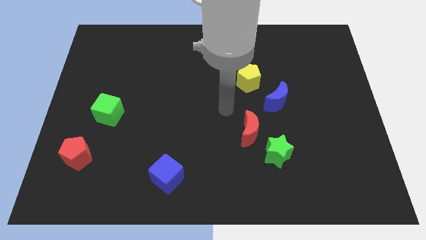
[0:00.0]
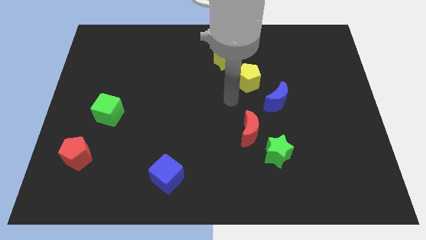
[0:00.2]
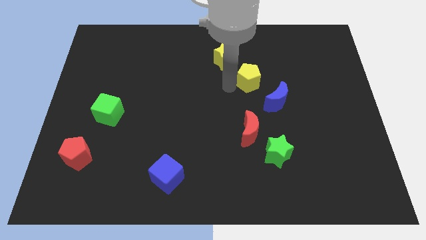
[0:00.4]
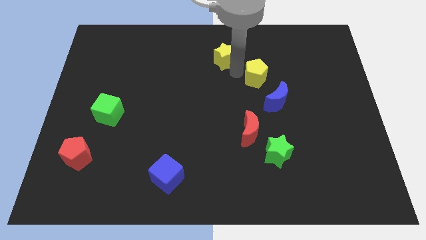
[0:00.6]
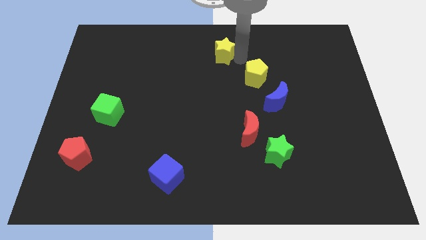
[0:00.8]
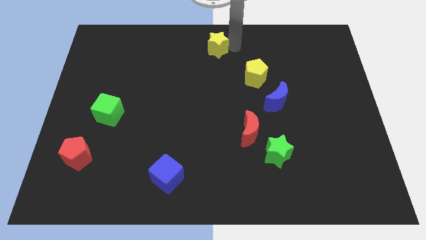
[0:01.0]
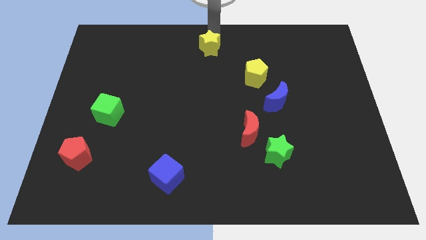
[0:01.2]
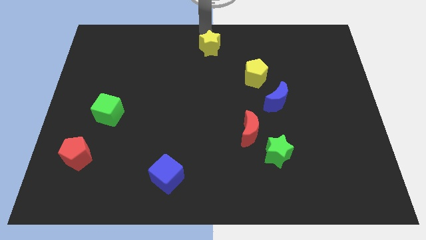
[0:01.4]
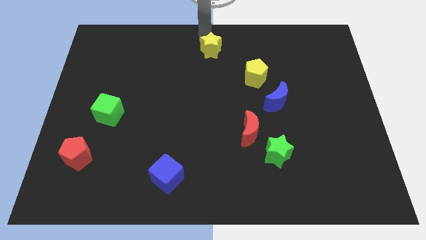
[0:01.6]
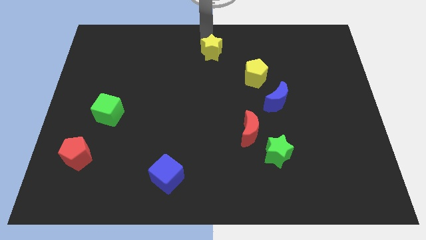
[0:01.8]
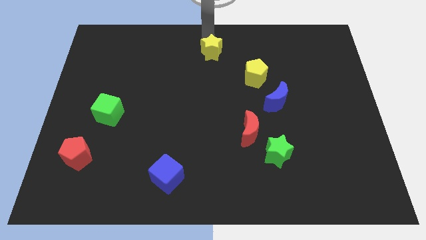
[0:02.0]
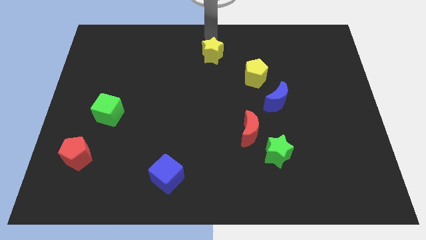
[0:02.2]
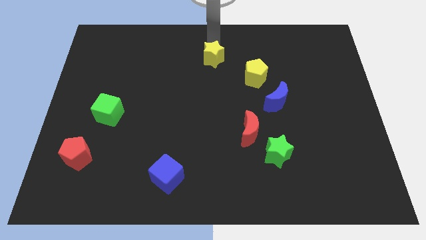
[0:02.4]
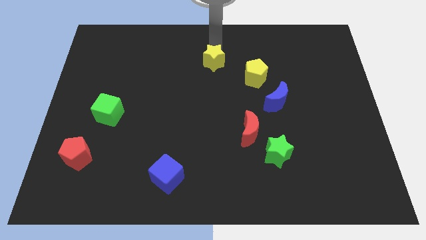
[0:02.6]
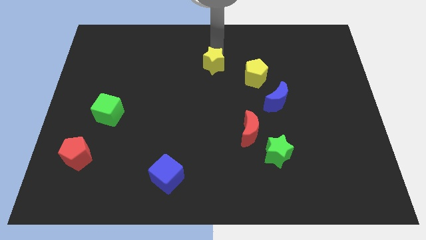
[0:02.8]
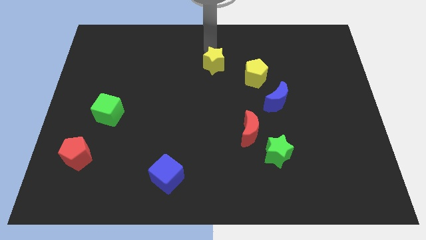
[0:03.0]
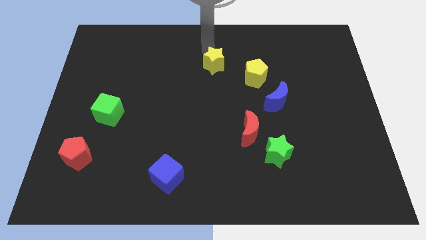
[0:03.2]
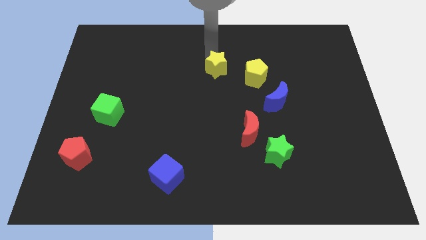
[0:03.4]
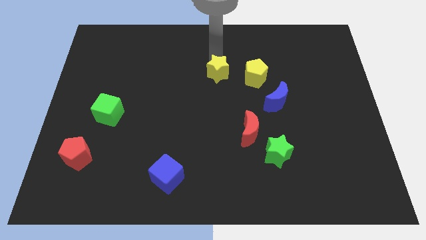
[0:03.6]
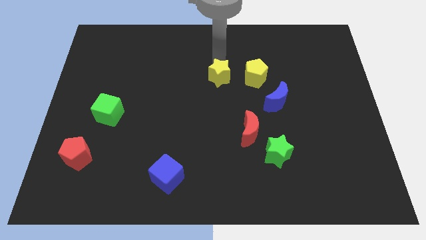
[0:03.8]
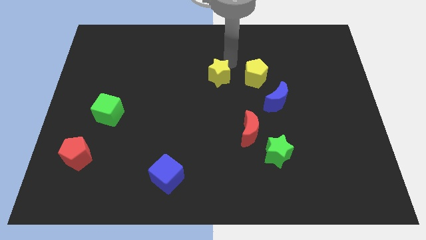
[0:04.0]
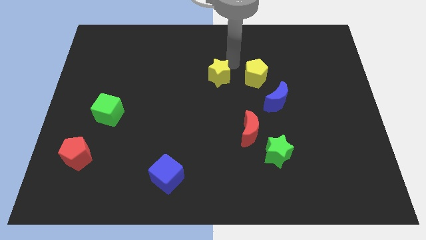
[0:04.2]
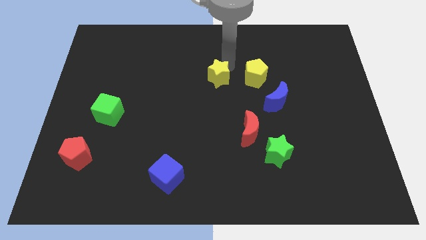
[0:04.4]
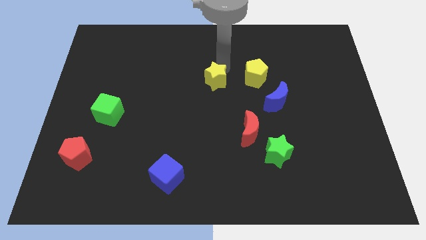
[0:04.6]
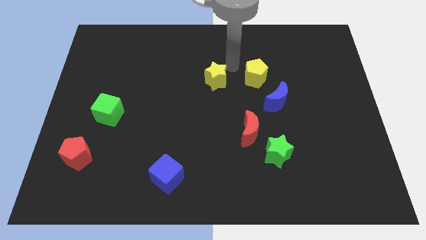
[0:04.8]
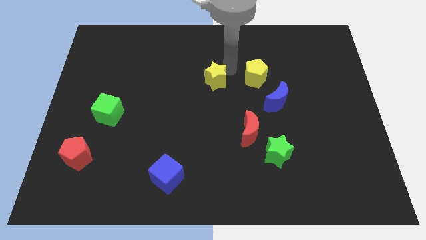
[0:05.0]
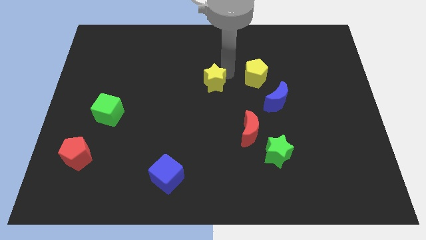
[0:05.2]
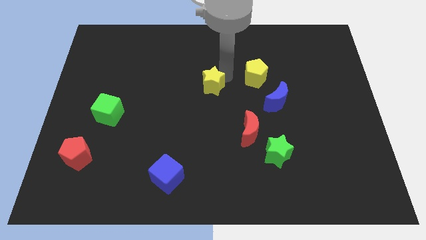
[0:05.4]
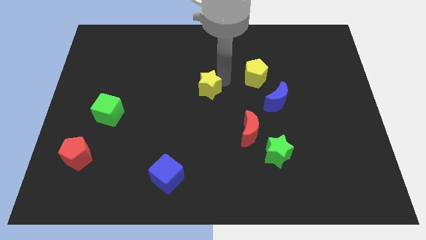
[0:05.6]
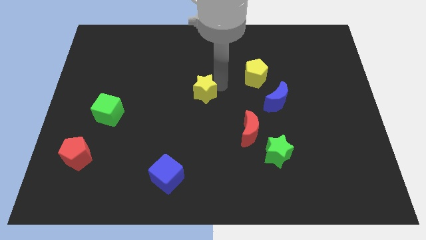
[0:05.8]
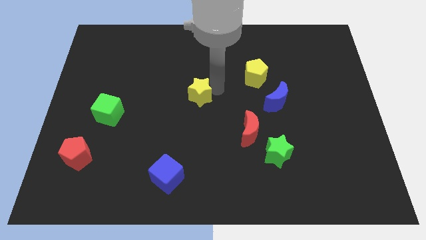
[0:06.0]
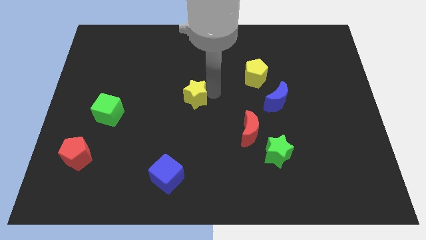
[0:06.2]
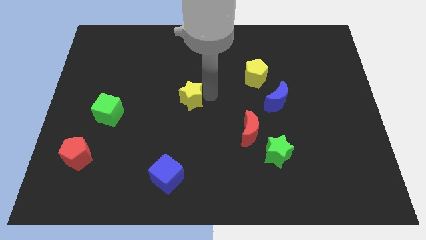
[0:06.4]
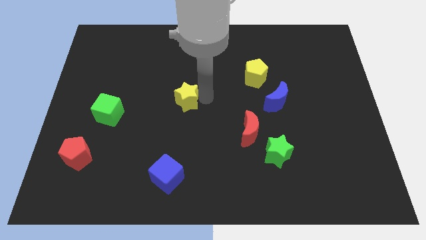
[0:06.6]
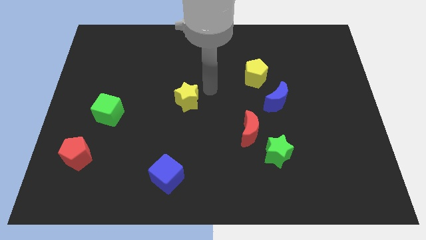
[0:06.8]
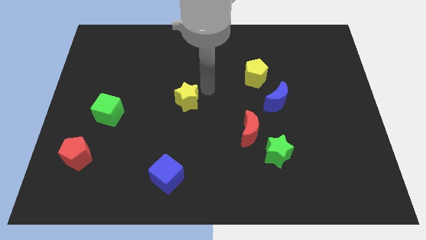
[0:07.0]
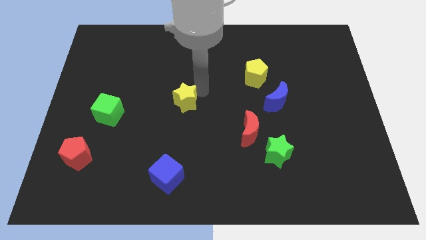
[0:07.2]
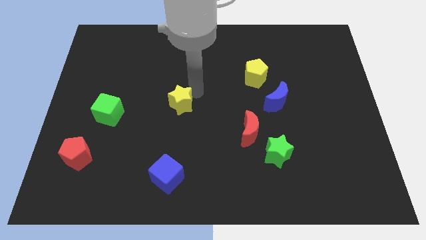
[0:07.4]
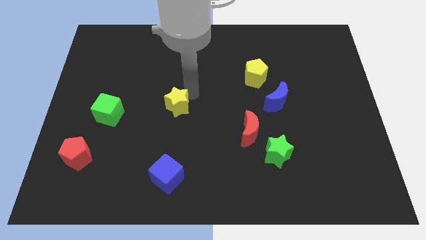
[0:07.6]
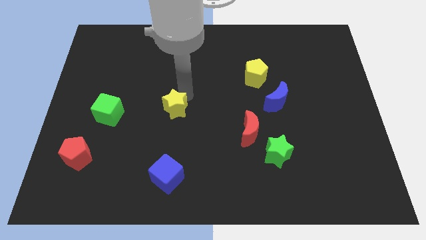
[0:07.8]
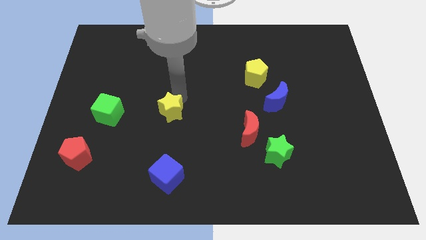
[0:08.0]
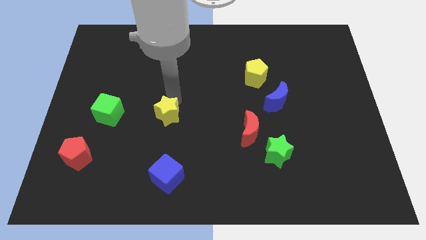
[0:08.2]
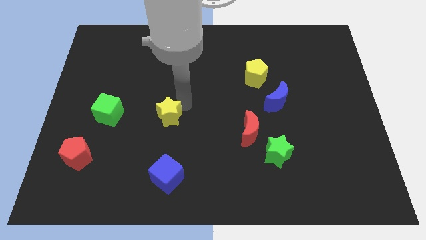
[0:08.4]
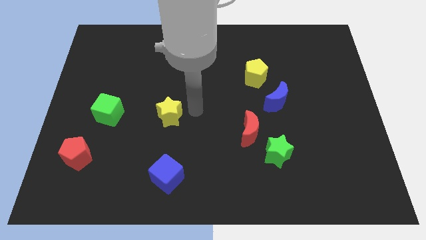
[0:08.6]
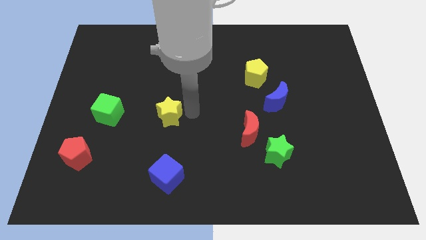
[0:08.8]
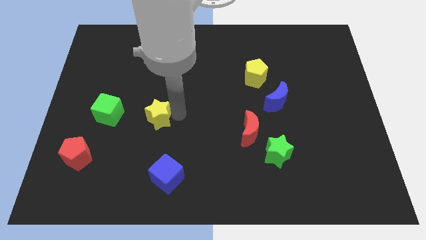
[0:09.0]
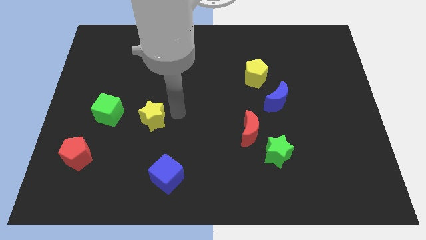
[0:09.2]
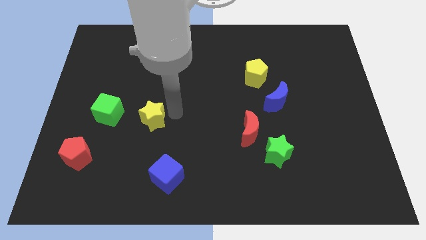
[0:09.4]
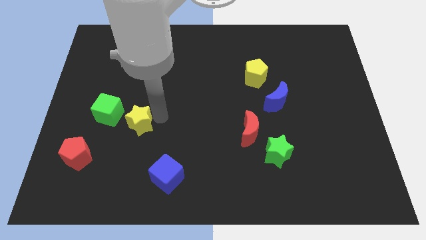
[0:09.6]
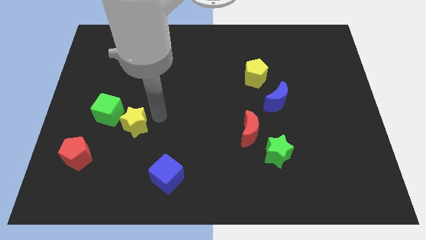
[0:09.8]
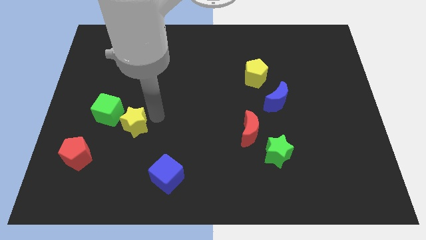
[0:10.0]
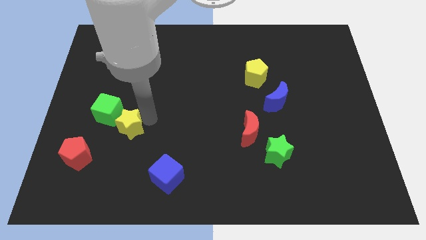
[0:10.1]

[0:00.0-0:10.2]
put the yellow star to the top right side of the red pentagon

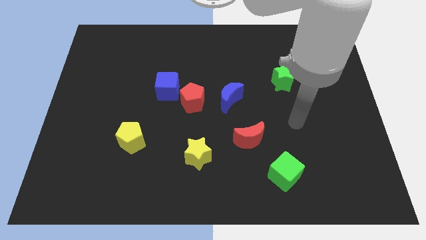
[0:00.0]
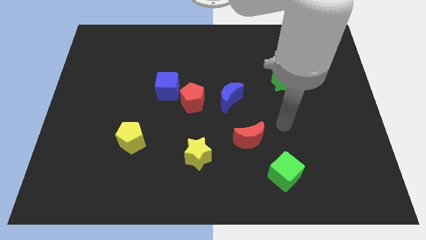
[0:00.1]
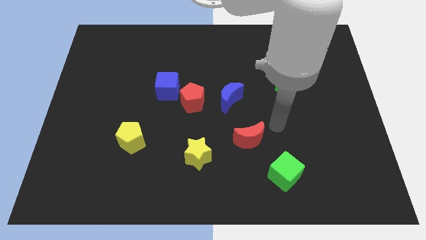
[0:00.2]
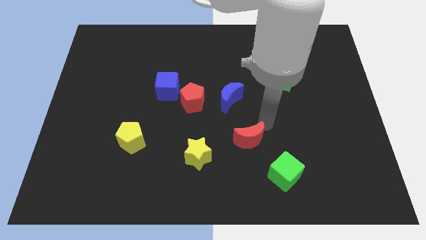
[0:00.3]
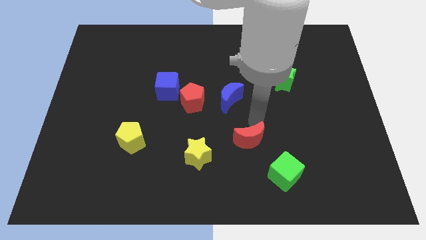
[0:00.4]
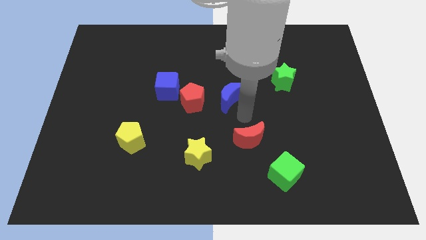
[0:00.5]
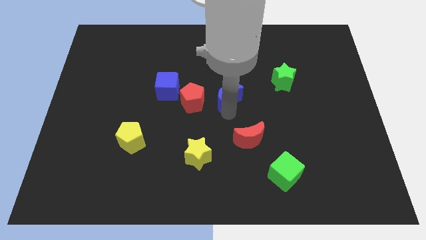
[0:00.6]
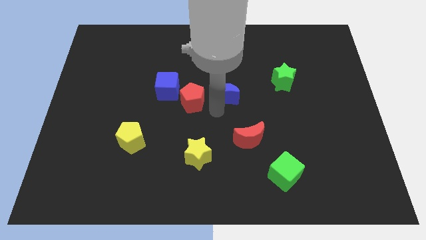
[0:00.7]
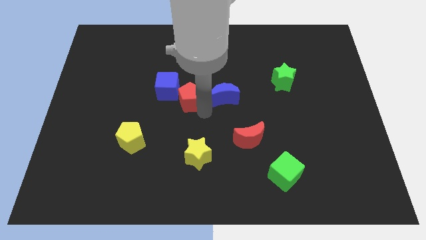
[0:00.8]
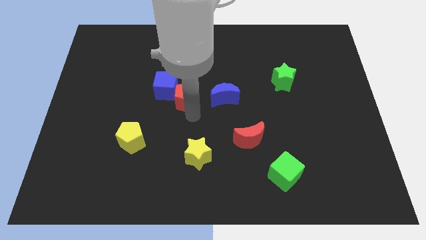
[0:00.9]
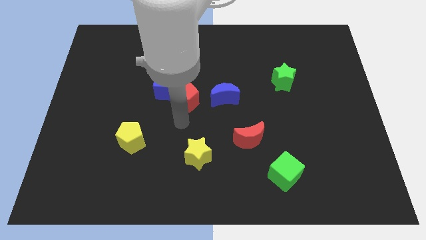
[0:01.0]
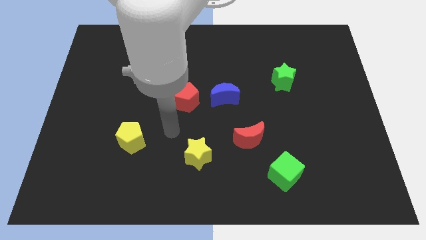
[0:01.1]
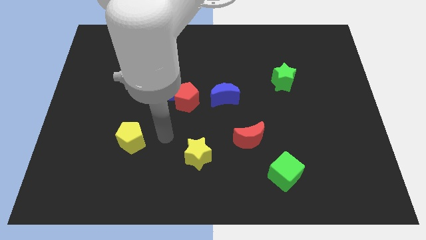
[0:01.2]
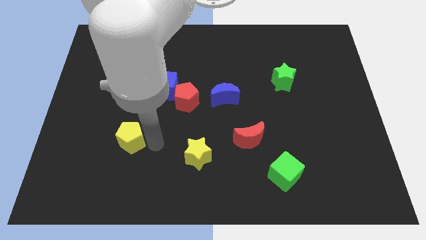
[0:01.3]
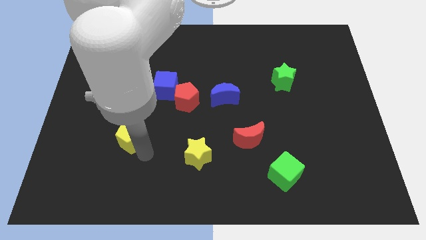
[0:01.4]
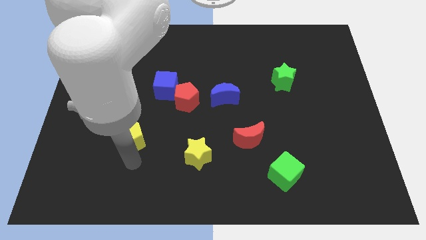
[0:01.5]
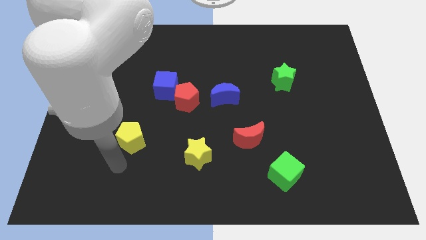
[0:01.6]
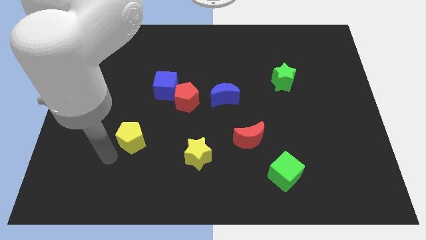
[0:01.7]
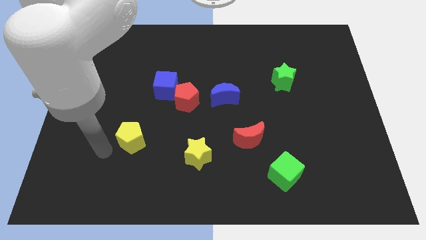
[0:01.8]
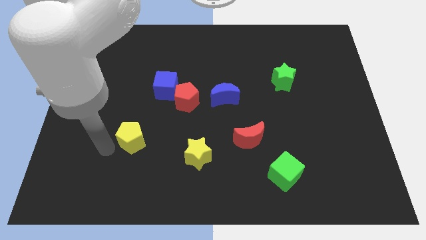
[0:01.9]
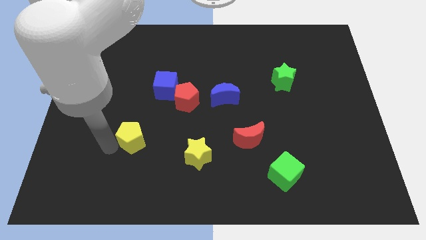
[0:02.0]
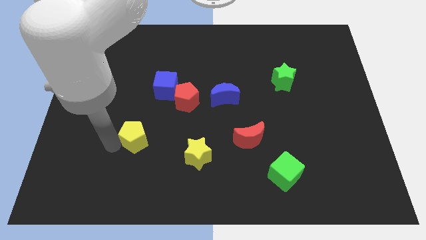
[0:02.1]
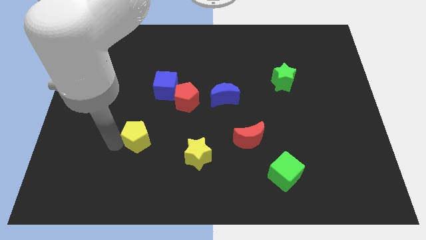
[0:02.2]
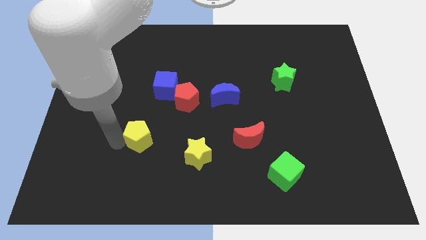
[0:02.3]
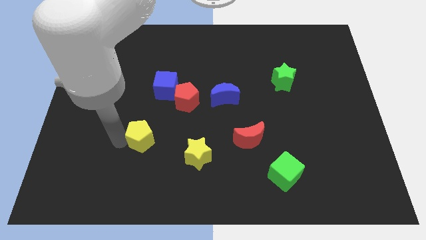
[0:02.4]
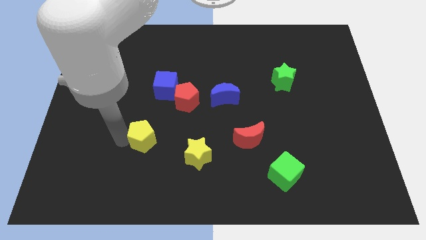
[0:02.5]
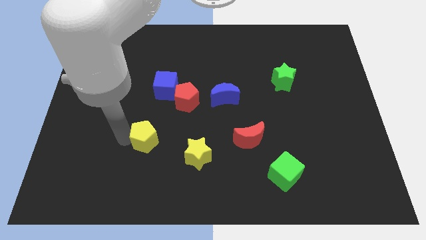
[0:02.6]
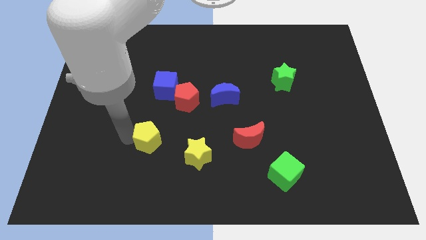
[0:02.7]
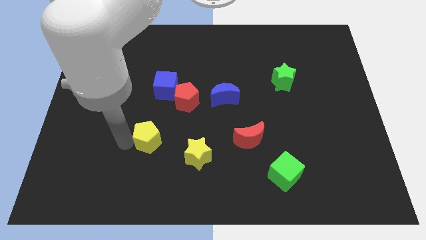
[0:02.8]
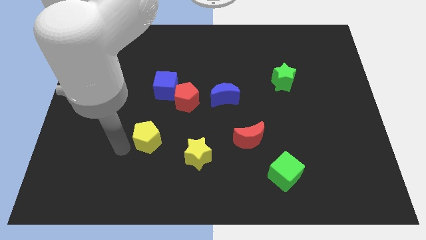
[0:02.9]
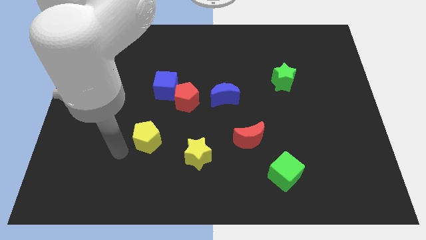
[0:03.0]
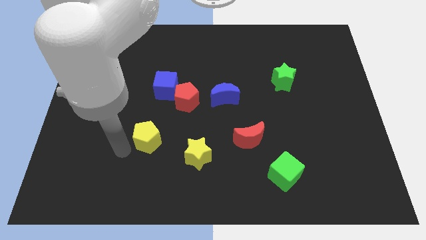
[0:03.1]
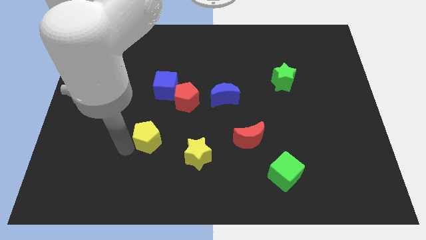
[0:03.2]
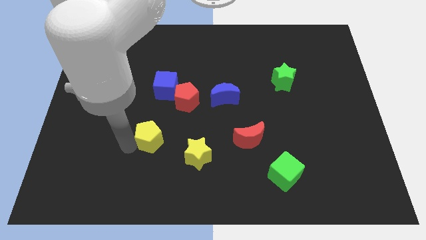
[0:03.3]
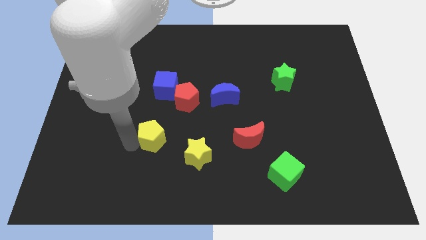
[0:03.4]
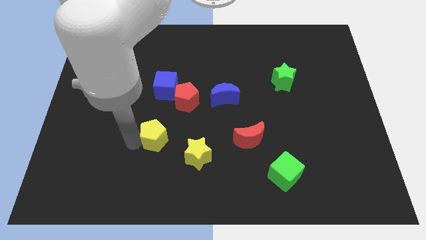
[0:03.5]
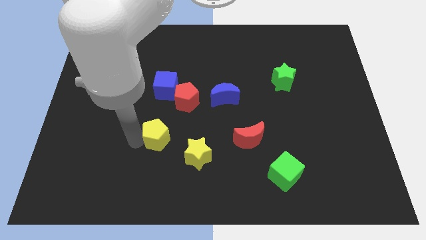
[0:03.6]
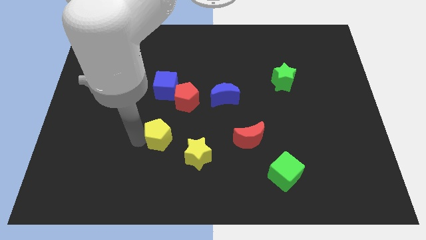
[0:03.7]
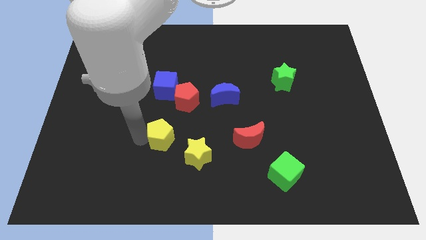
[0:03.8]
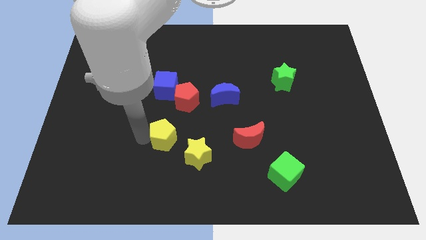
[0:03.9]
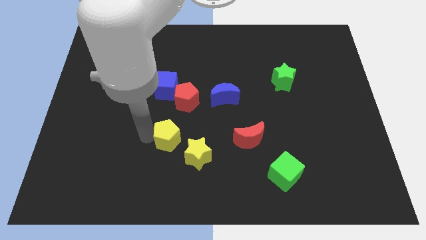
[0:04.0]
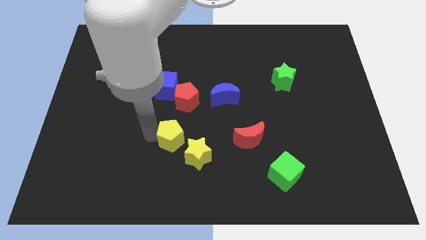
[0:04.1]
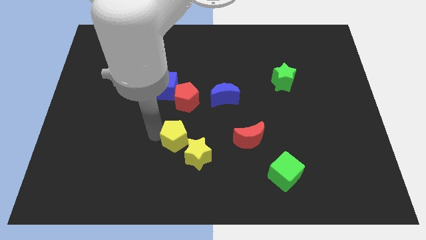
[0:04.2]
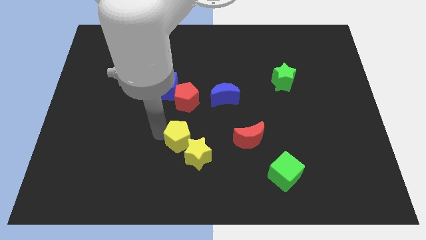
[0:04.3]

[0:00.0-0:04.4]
move the yellow pentagon to the top of the yellow star
